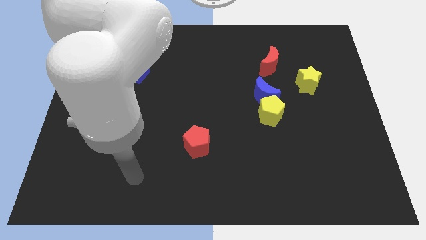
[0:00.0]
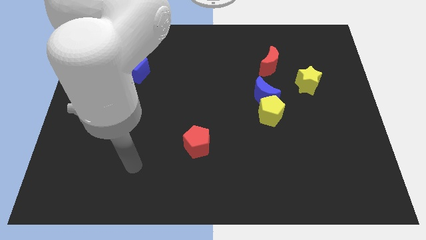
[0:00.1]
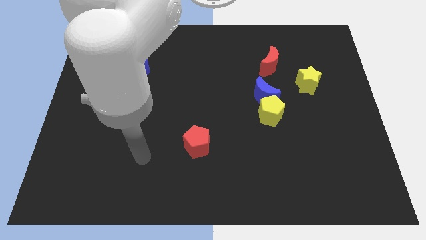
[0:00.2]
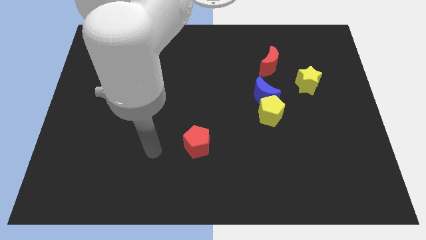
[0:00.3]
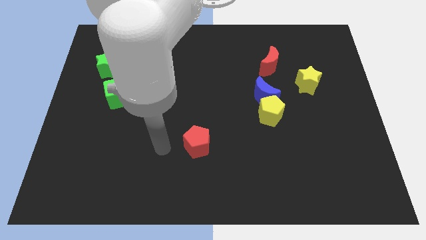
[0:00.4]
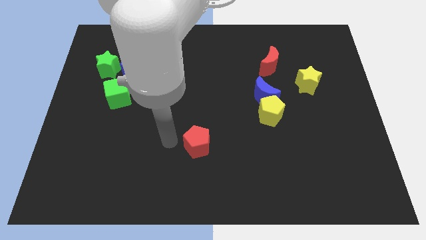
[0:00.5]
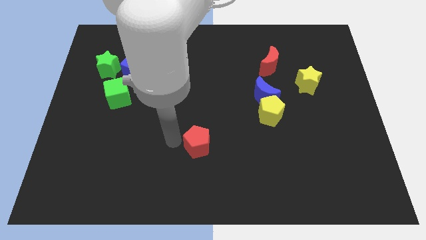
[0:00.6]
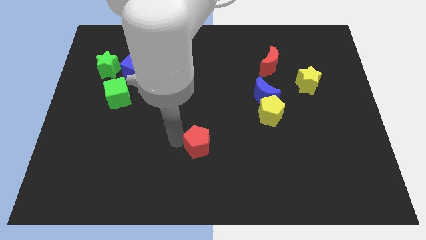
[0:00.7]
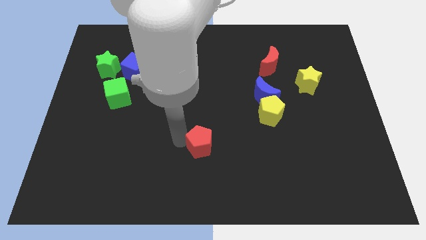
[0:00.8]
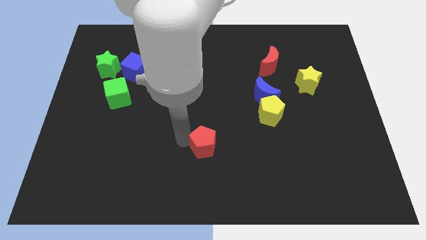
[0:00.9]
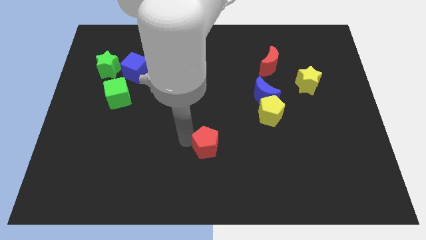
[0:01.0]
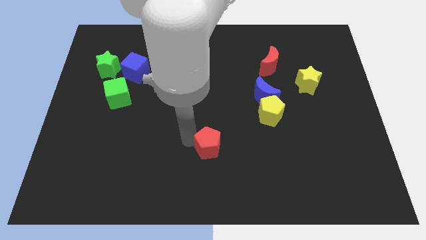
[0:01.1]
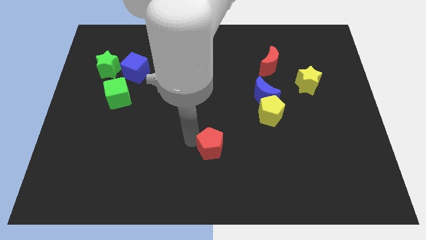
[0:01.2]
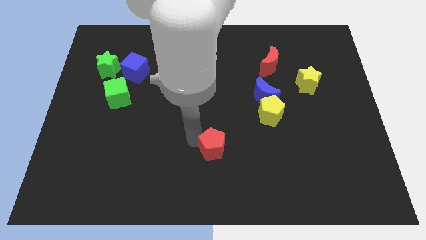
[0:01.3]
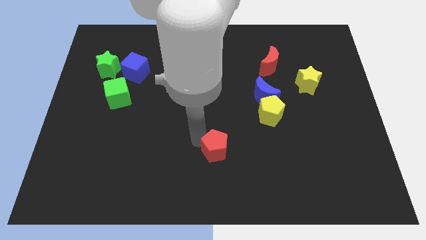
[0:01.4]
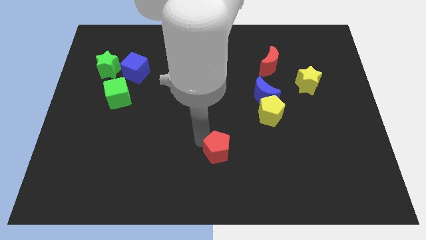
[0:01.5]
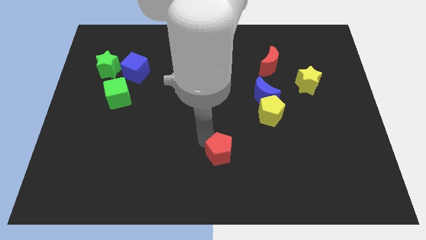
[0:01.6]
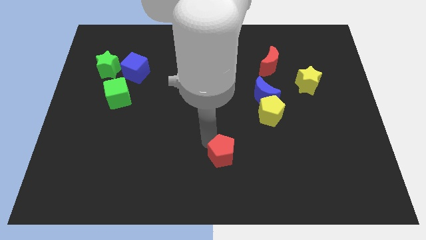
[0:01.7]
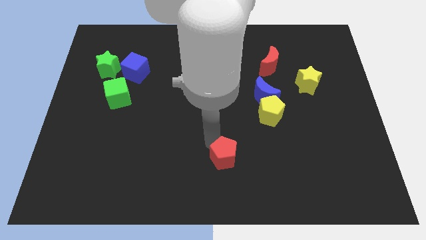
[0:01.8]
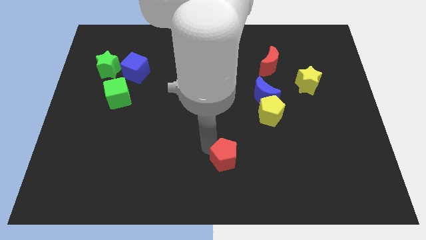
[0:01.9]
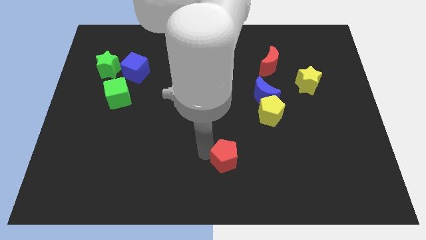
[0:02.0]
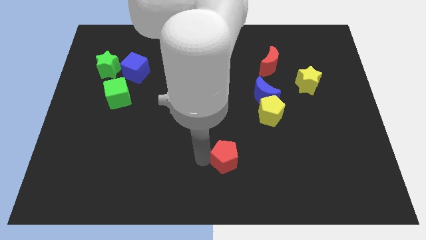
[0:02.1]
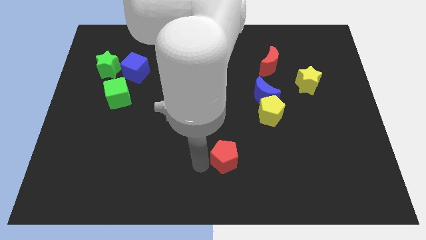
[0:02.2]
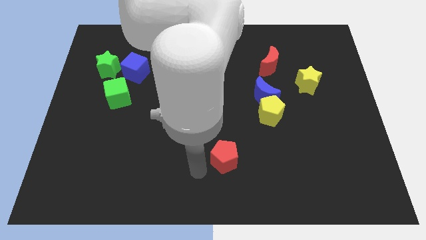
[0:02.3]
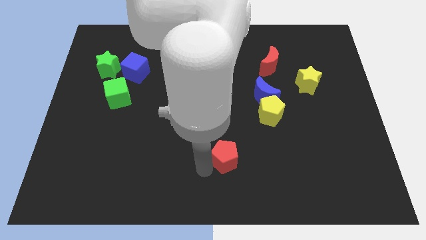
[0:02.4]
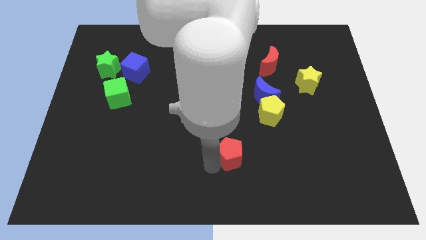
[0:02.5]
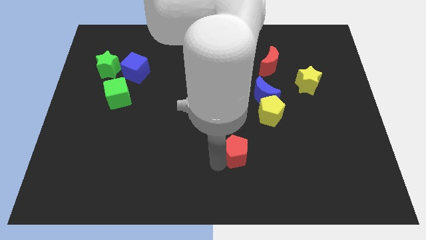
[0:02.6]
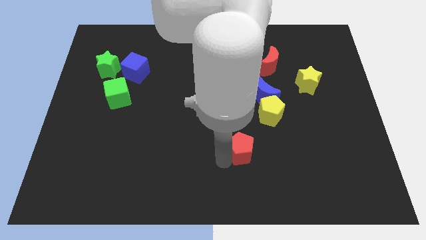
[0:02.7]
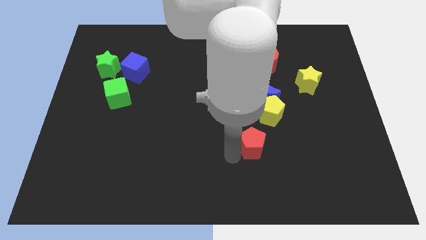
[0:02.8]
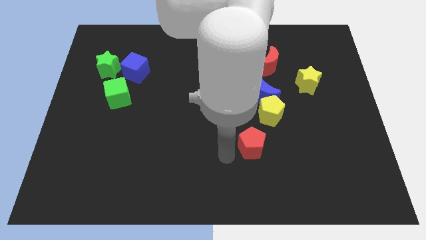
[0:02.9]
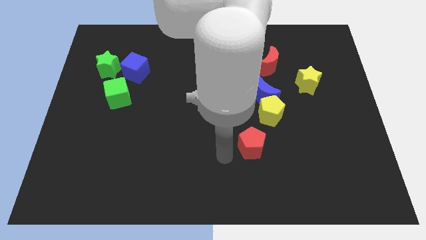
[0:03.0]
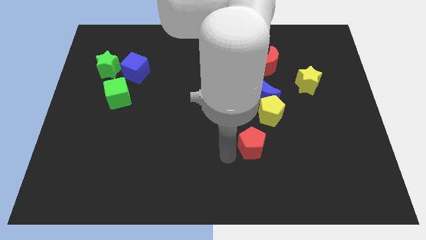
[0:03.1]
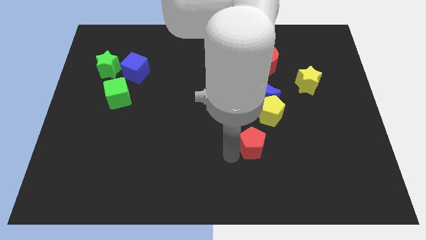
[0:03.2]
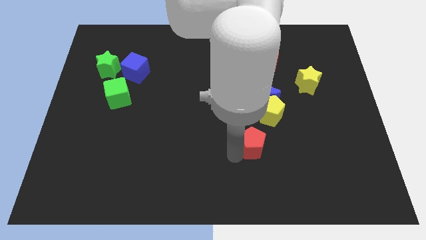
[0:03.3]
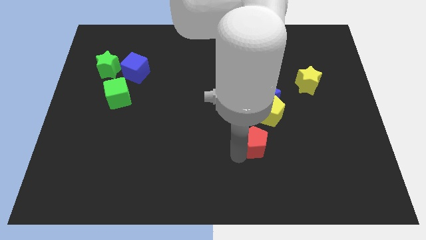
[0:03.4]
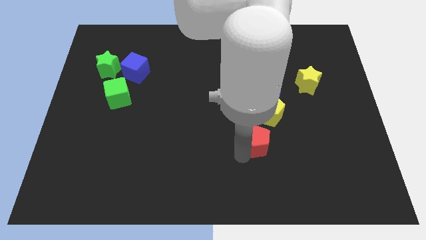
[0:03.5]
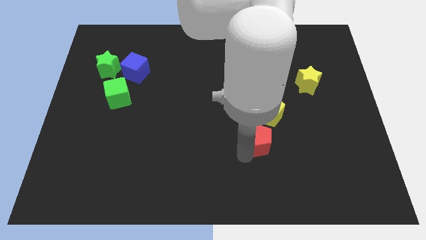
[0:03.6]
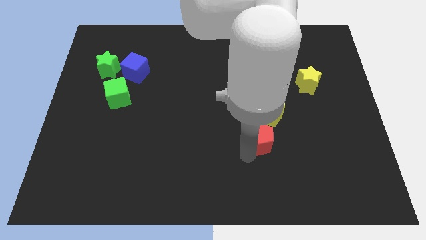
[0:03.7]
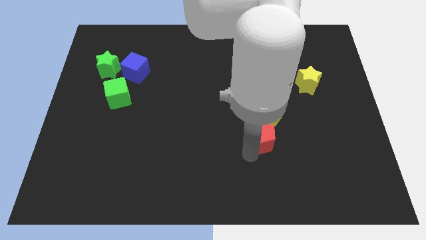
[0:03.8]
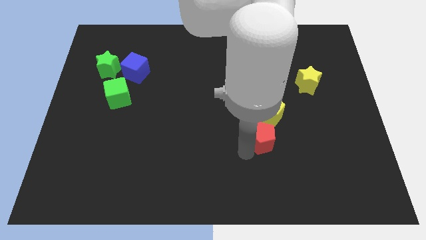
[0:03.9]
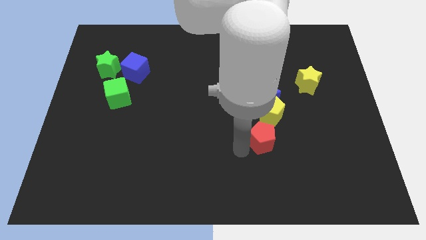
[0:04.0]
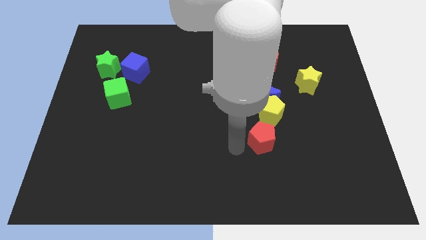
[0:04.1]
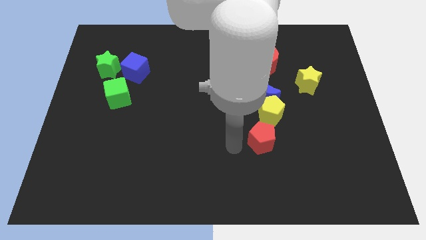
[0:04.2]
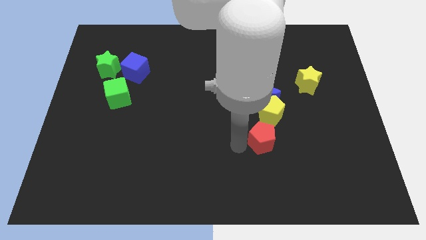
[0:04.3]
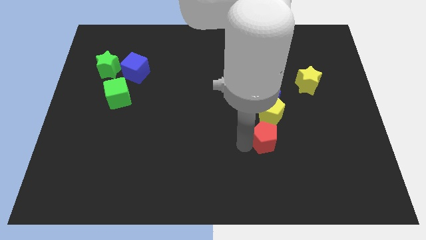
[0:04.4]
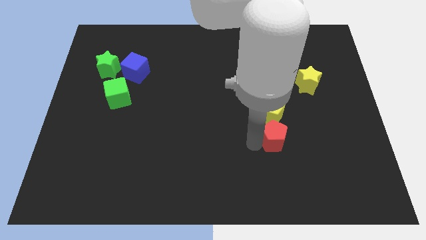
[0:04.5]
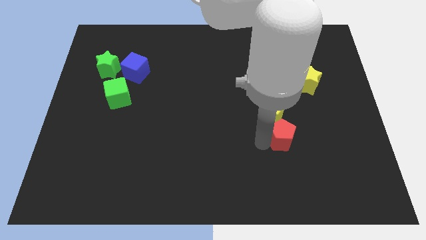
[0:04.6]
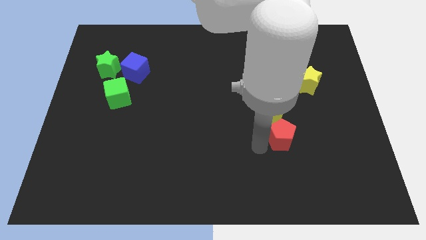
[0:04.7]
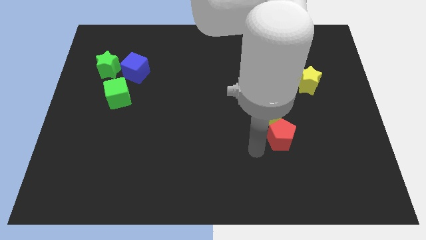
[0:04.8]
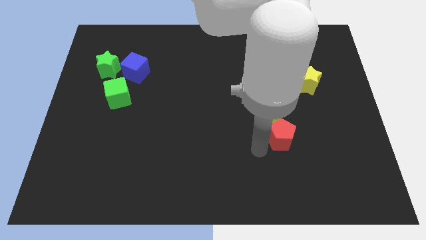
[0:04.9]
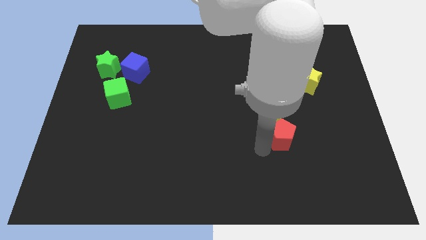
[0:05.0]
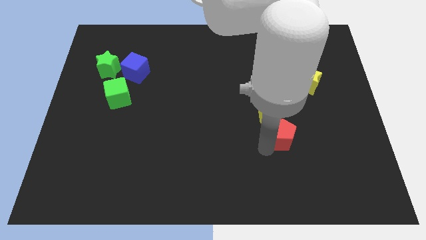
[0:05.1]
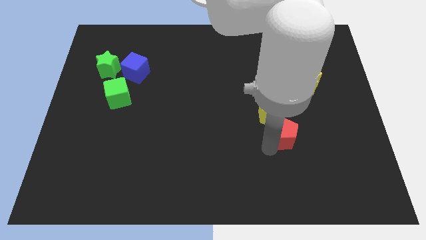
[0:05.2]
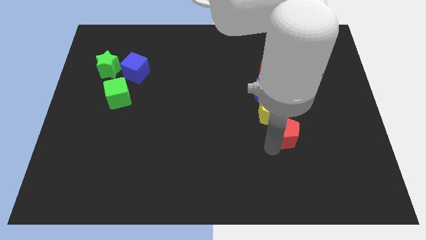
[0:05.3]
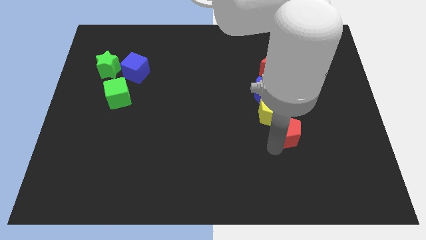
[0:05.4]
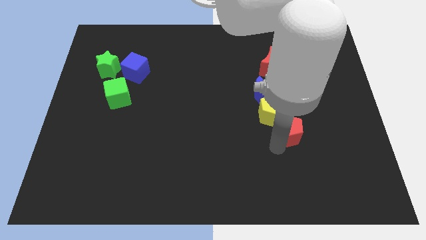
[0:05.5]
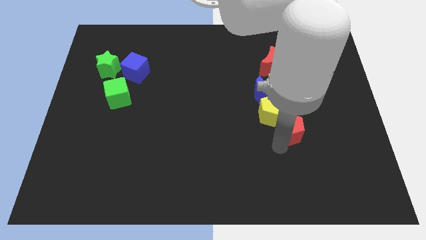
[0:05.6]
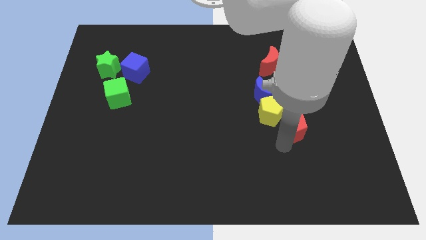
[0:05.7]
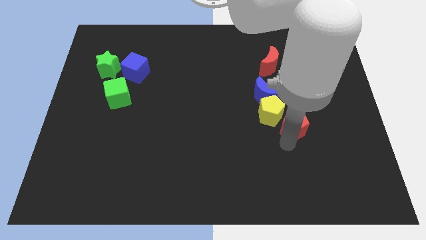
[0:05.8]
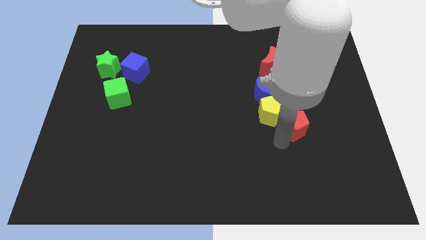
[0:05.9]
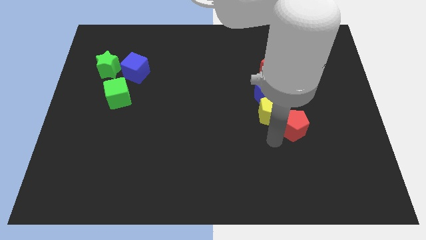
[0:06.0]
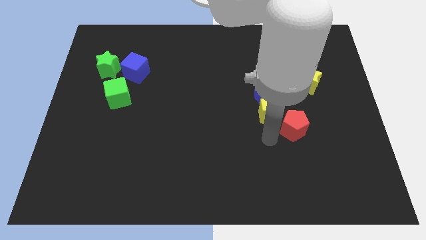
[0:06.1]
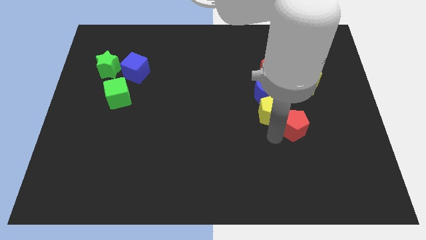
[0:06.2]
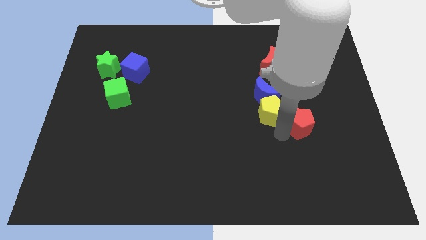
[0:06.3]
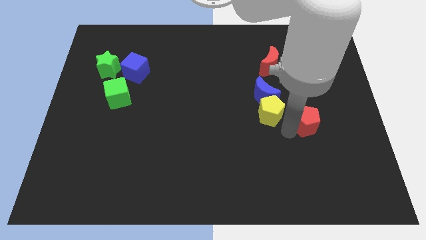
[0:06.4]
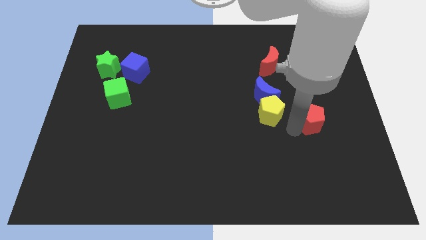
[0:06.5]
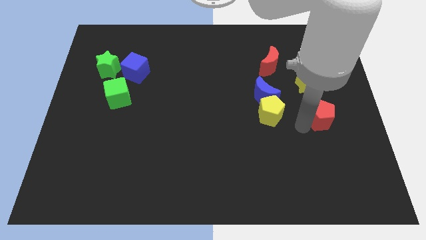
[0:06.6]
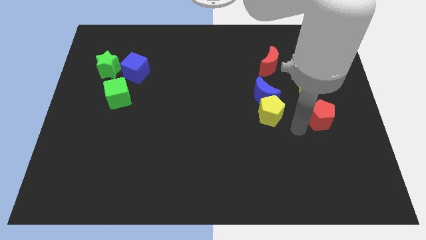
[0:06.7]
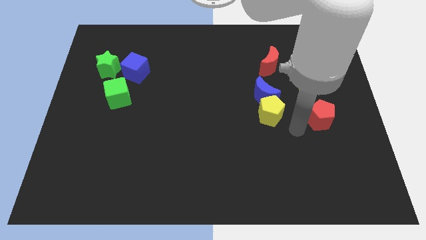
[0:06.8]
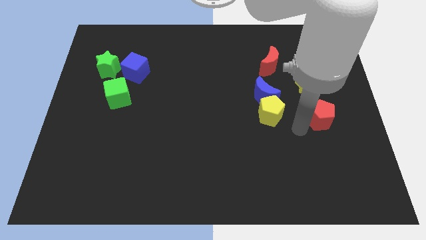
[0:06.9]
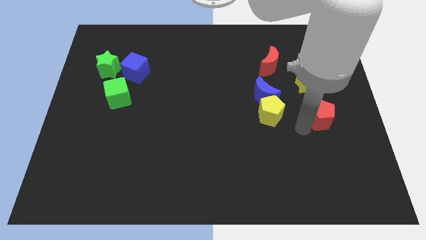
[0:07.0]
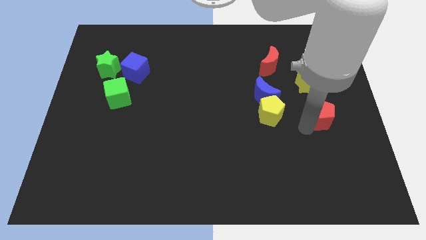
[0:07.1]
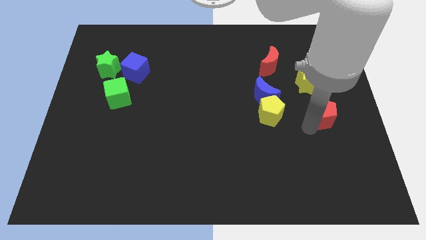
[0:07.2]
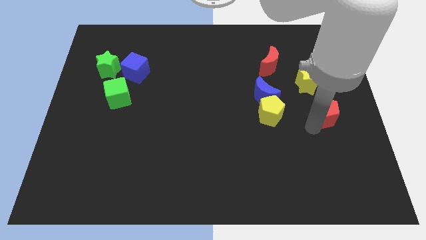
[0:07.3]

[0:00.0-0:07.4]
slide the red pentagon to the right side of the board

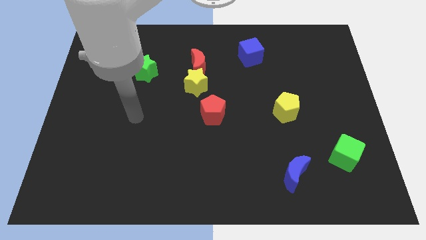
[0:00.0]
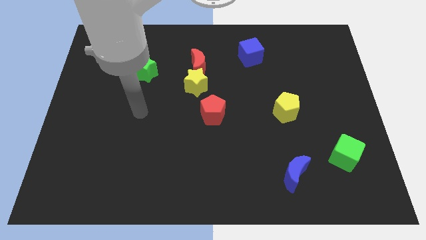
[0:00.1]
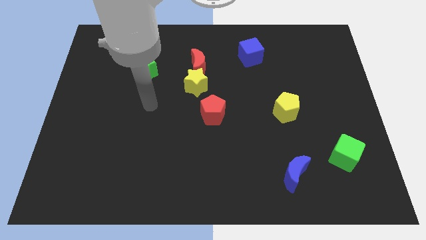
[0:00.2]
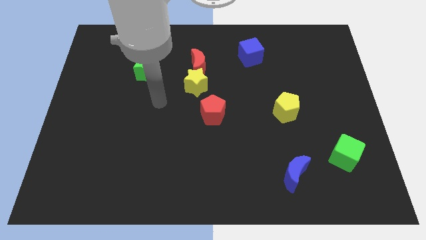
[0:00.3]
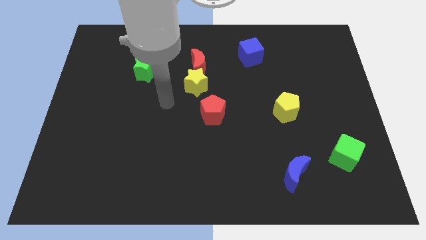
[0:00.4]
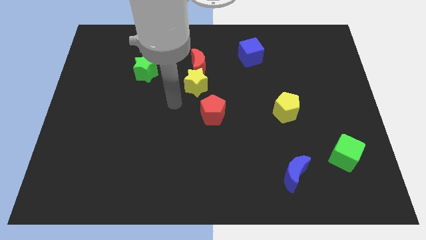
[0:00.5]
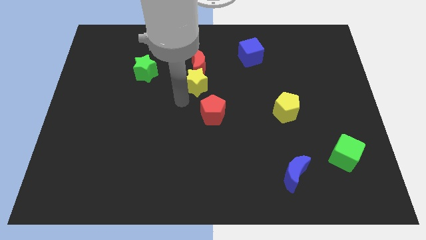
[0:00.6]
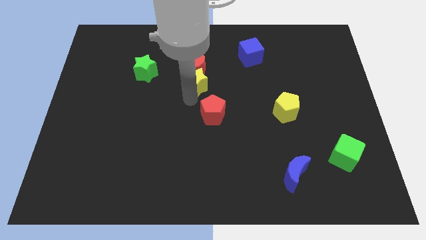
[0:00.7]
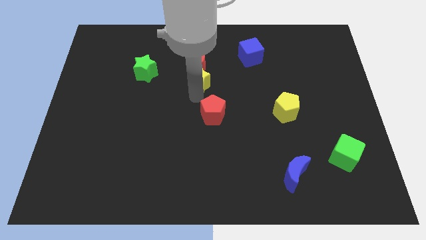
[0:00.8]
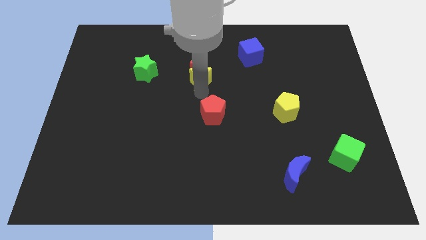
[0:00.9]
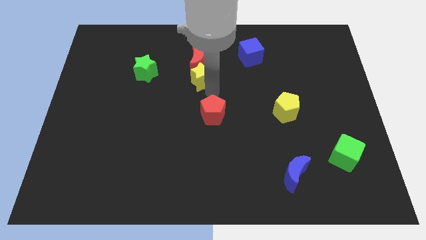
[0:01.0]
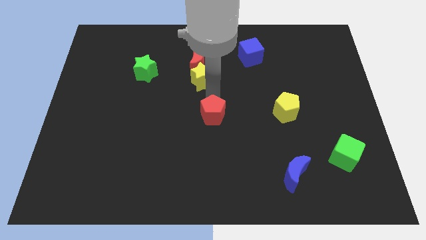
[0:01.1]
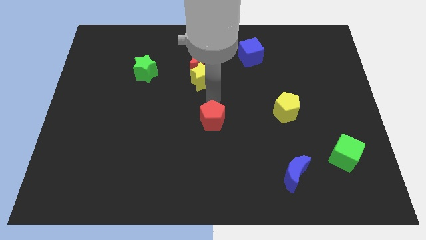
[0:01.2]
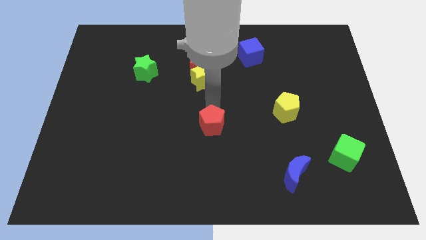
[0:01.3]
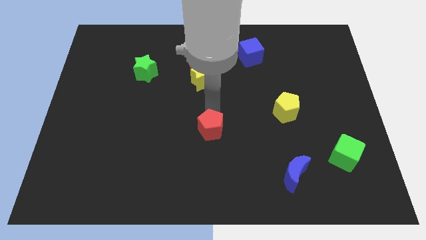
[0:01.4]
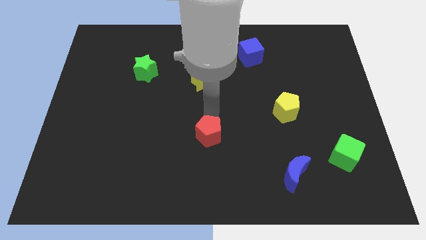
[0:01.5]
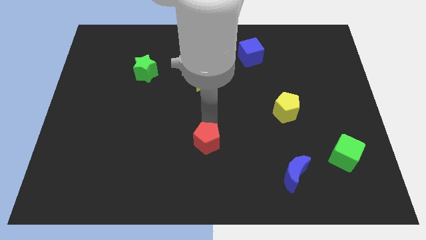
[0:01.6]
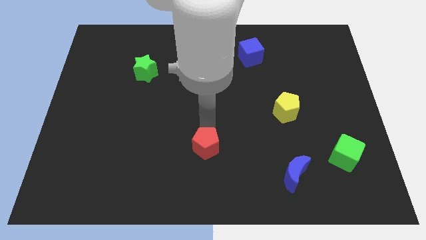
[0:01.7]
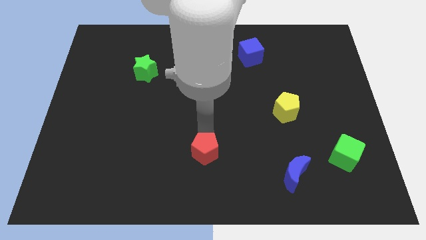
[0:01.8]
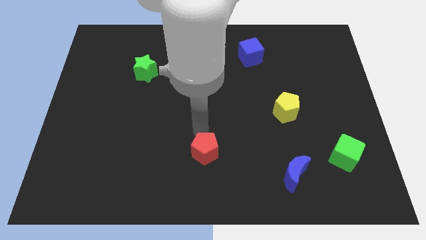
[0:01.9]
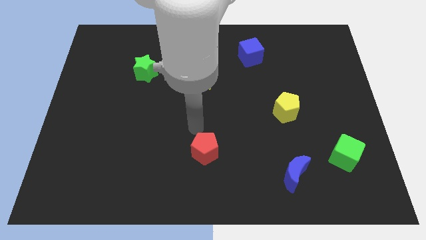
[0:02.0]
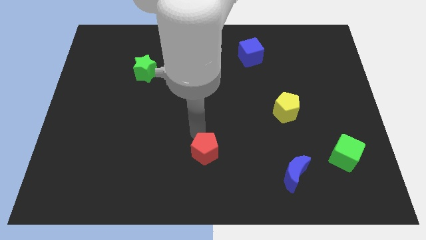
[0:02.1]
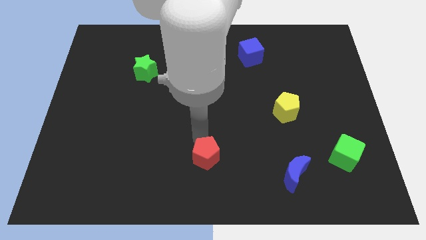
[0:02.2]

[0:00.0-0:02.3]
slide the red pentagon to the bottom side
